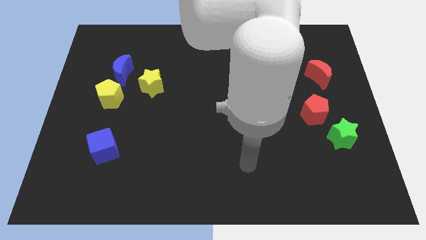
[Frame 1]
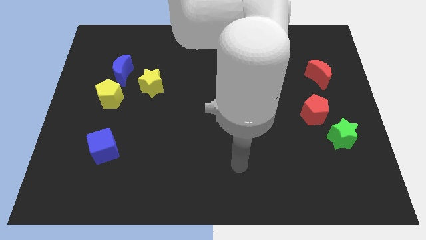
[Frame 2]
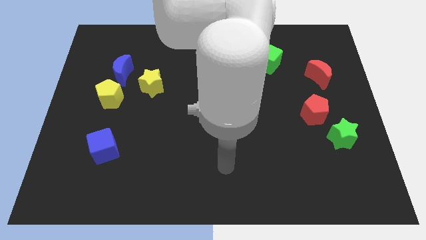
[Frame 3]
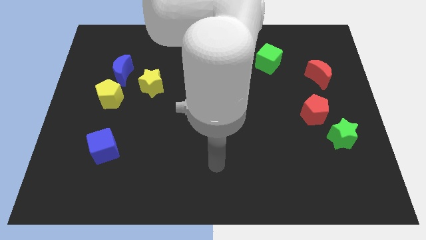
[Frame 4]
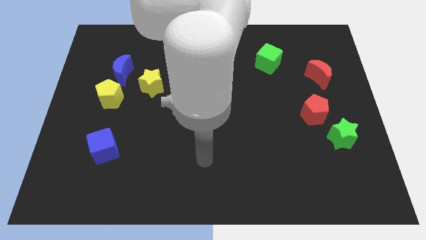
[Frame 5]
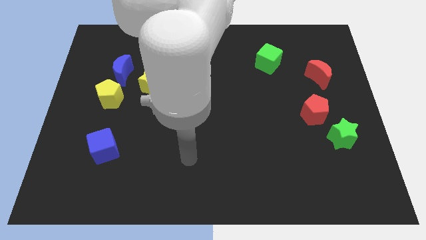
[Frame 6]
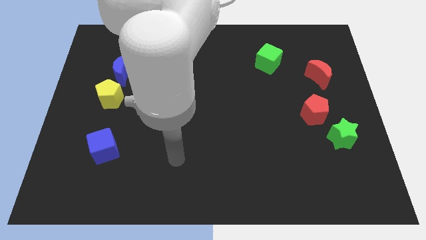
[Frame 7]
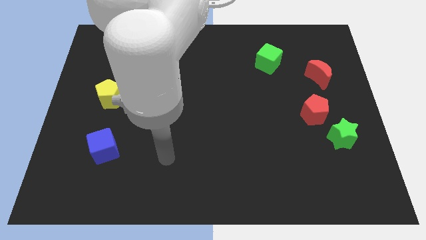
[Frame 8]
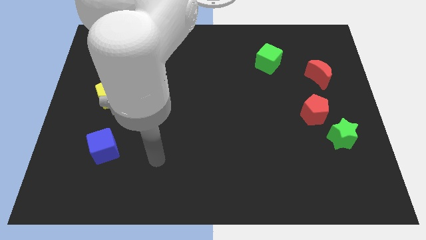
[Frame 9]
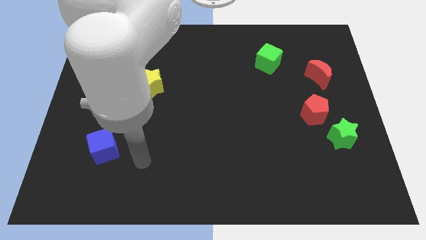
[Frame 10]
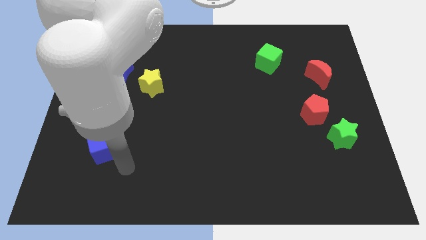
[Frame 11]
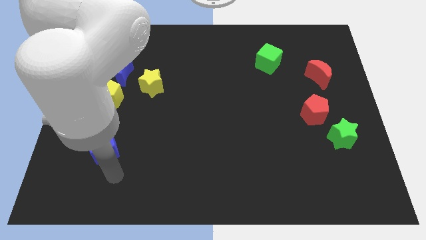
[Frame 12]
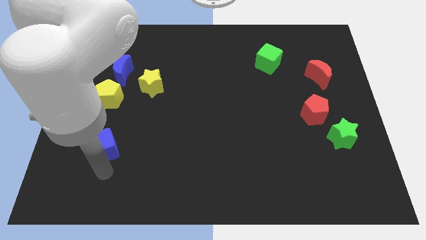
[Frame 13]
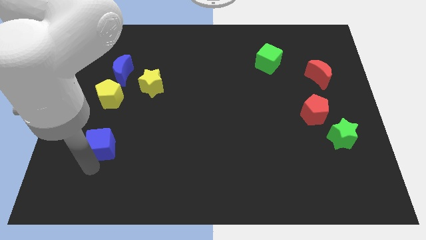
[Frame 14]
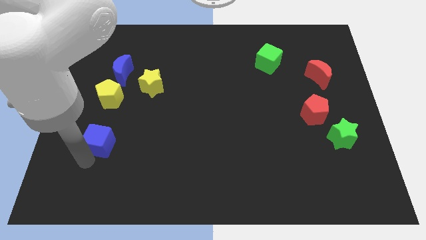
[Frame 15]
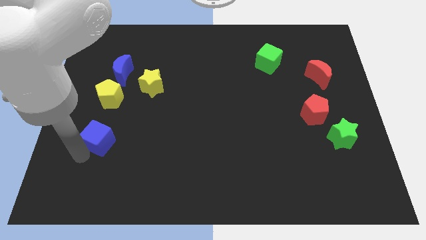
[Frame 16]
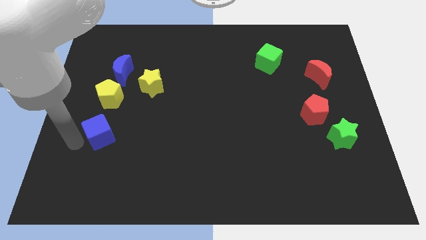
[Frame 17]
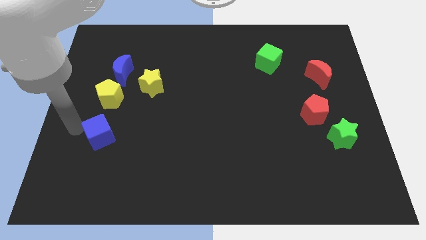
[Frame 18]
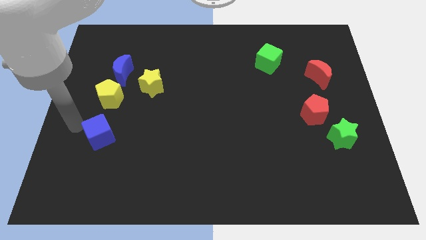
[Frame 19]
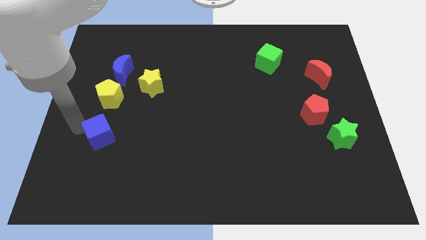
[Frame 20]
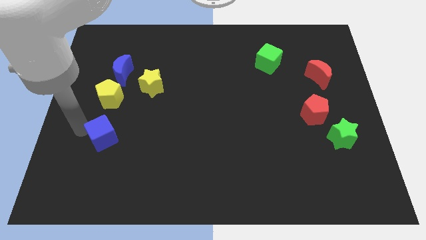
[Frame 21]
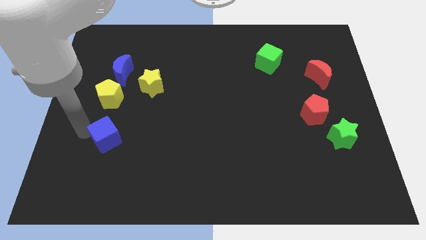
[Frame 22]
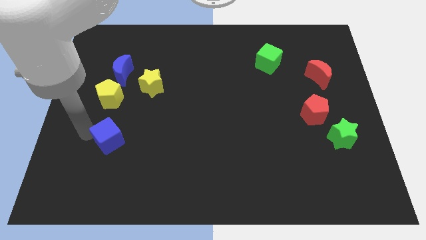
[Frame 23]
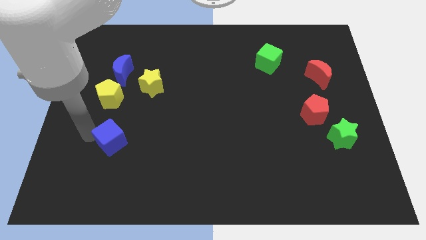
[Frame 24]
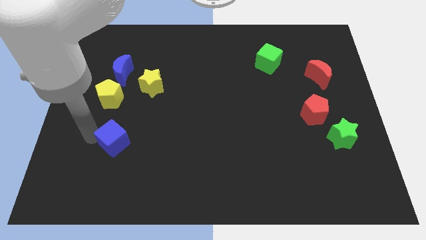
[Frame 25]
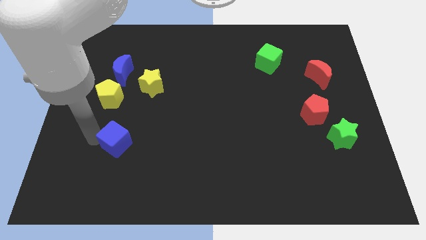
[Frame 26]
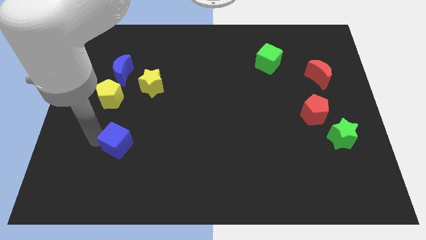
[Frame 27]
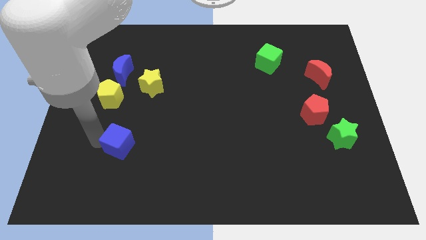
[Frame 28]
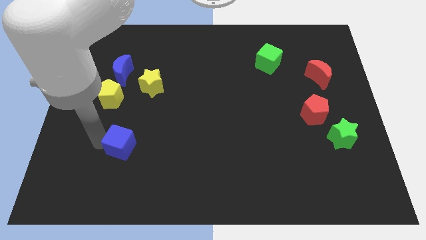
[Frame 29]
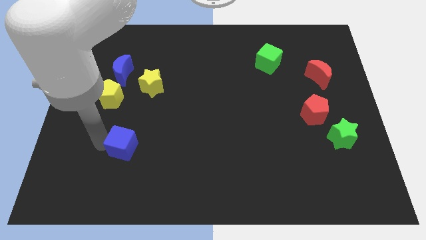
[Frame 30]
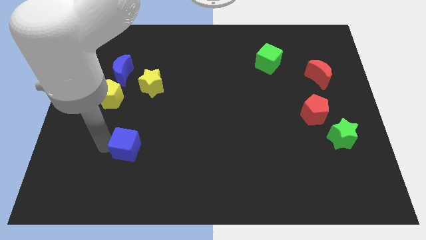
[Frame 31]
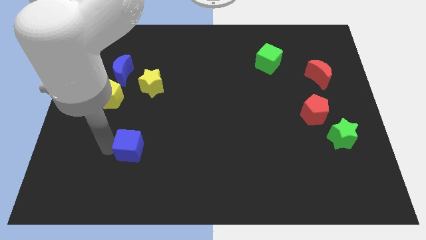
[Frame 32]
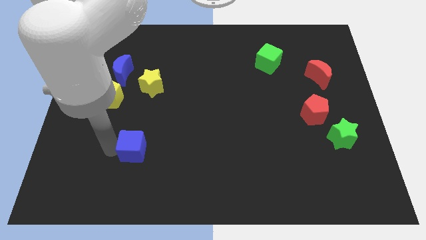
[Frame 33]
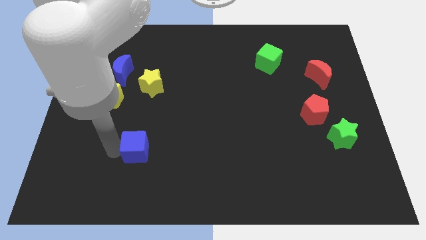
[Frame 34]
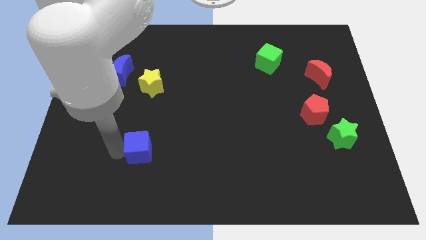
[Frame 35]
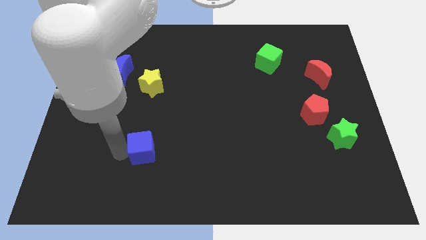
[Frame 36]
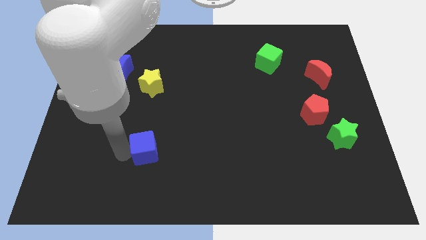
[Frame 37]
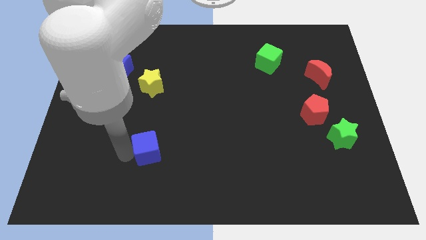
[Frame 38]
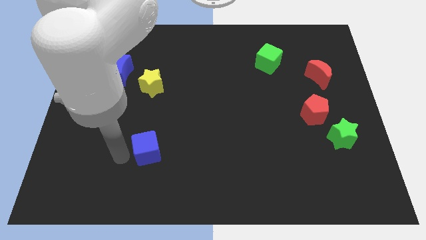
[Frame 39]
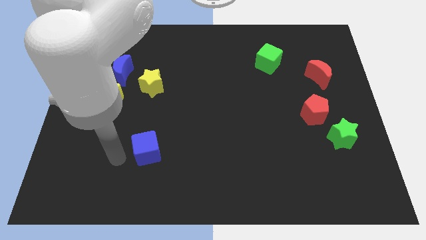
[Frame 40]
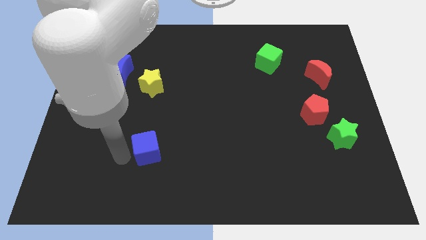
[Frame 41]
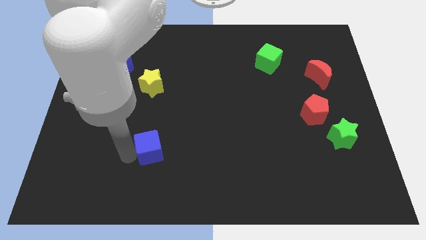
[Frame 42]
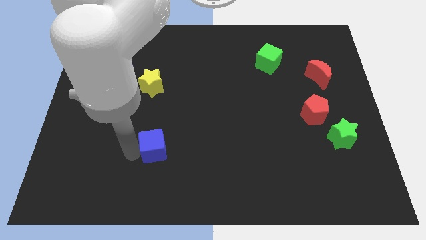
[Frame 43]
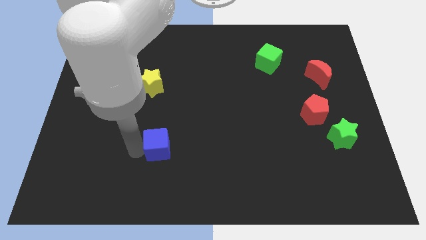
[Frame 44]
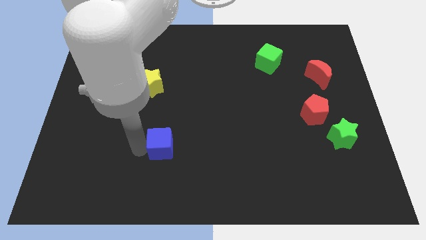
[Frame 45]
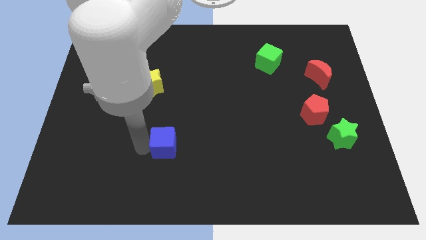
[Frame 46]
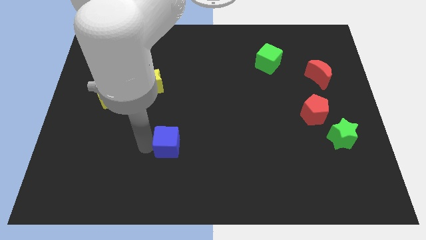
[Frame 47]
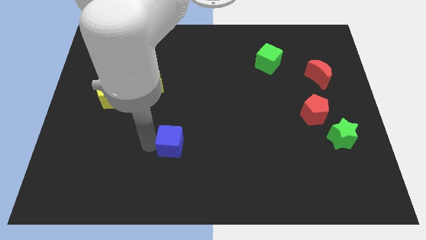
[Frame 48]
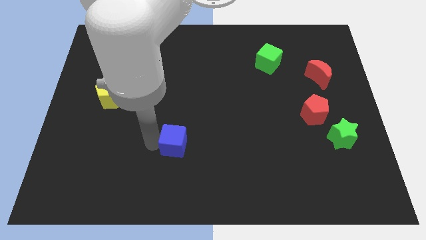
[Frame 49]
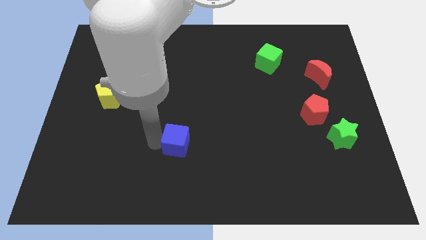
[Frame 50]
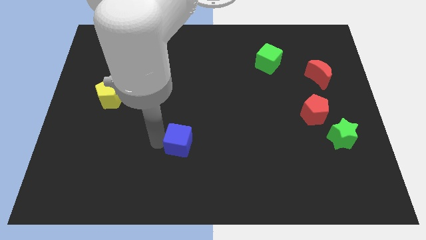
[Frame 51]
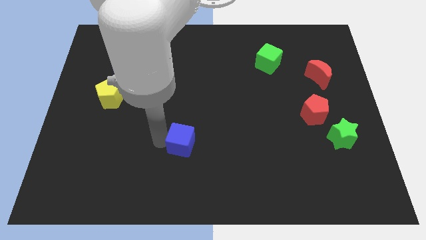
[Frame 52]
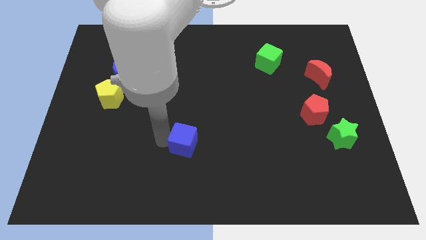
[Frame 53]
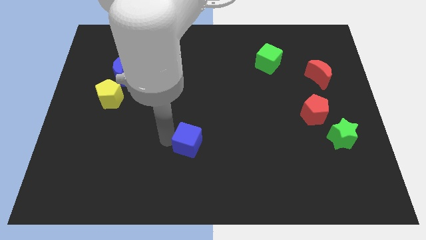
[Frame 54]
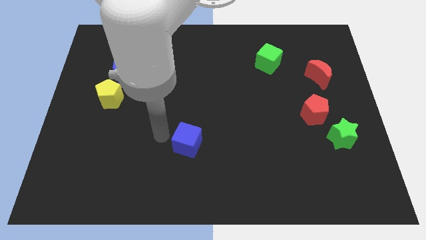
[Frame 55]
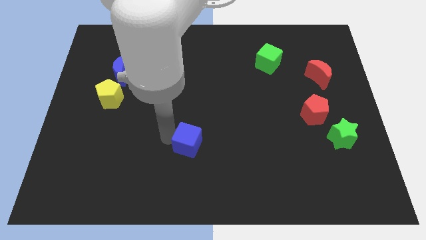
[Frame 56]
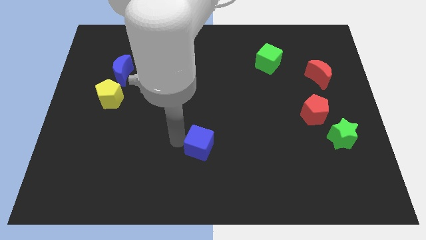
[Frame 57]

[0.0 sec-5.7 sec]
push the blue cube right

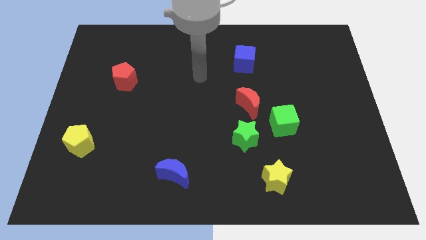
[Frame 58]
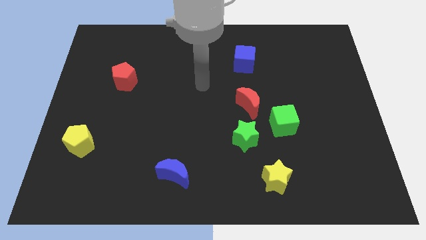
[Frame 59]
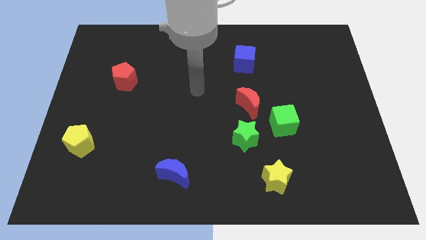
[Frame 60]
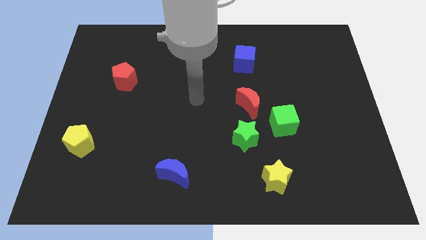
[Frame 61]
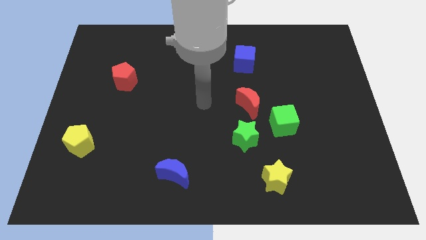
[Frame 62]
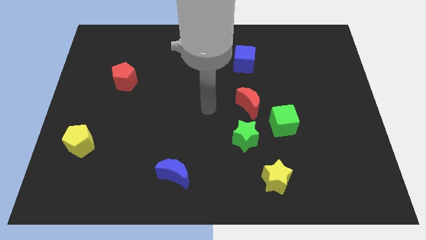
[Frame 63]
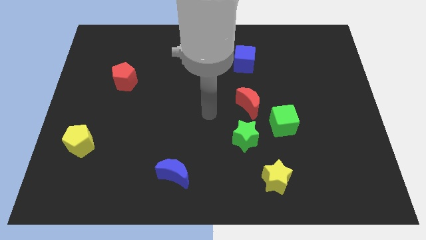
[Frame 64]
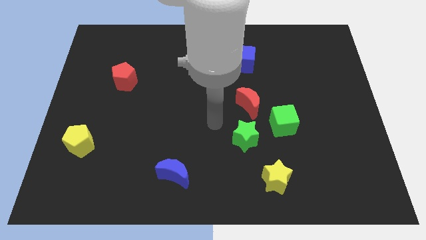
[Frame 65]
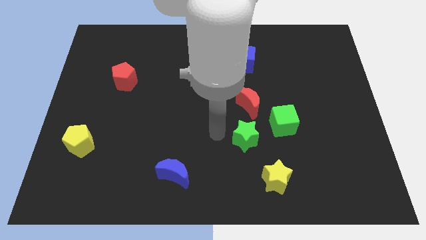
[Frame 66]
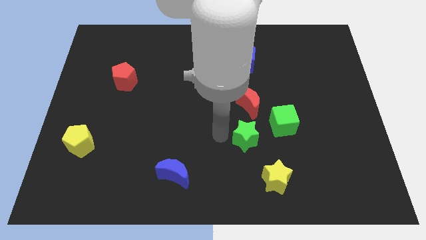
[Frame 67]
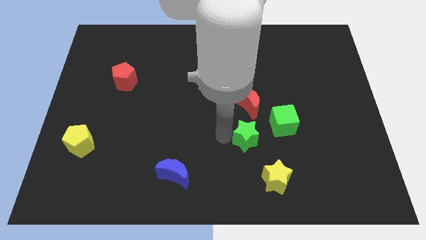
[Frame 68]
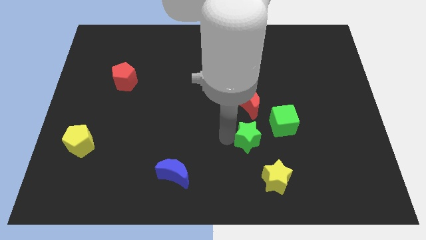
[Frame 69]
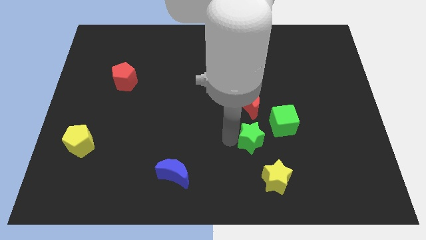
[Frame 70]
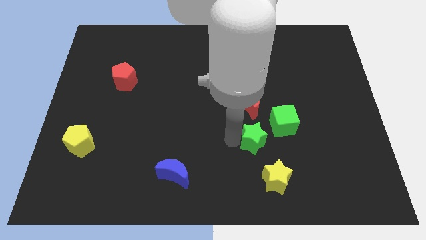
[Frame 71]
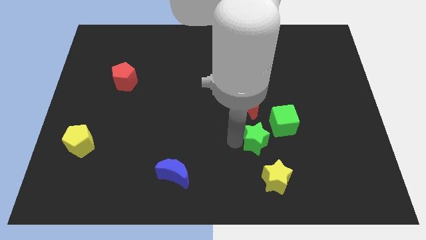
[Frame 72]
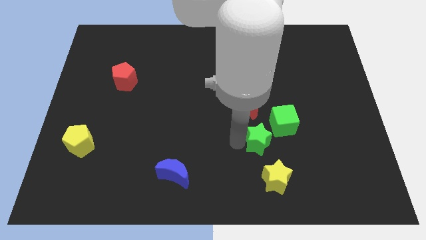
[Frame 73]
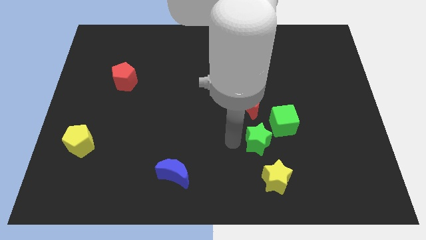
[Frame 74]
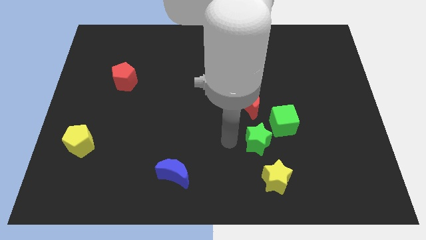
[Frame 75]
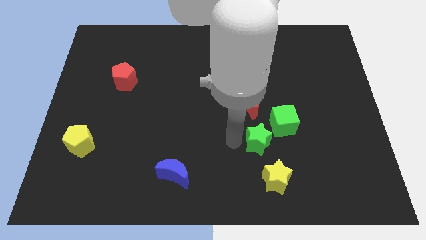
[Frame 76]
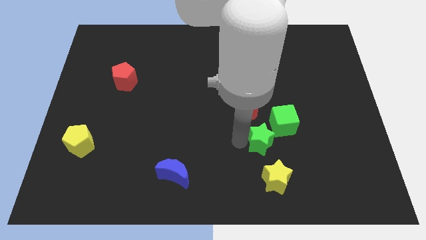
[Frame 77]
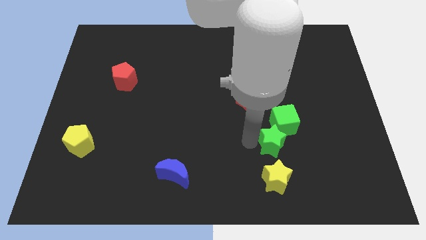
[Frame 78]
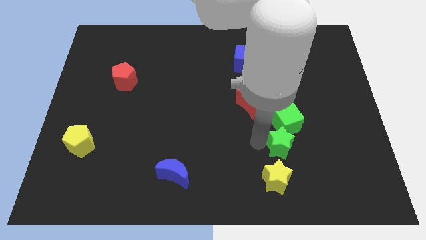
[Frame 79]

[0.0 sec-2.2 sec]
slightly push the green star right
